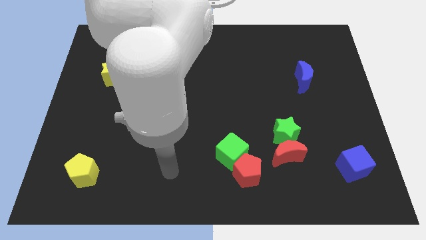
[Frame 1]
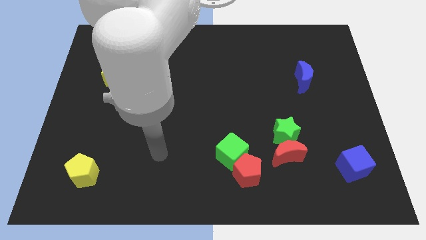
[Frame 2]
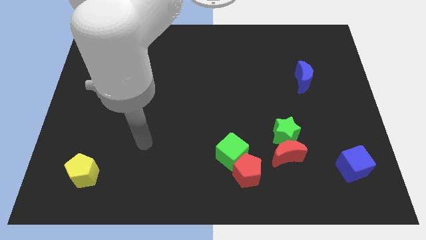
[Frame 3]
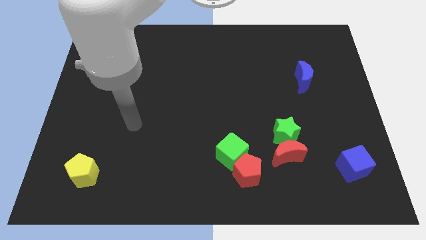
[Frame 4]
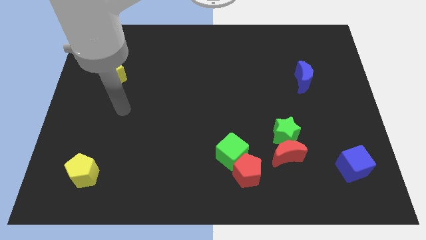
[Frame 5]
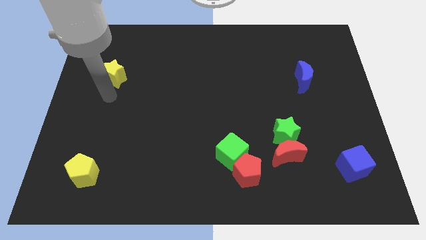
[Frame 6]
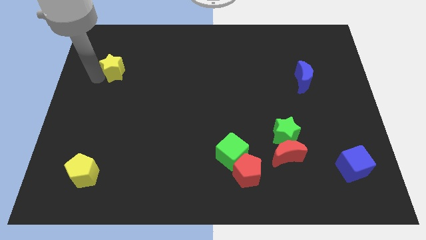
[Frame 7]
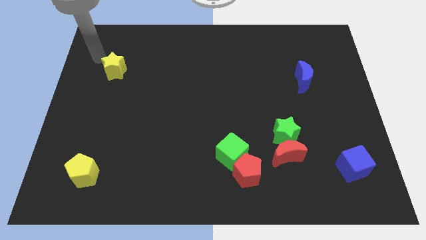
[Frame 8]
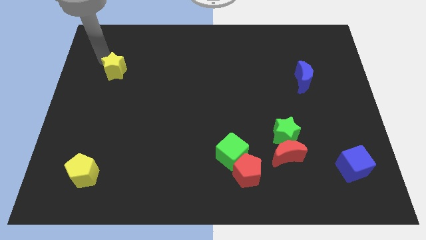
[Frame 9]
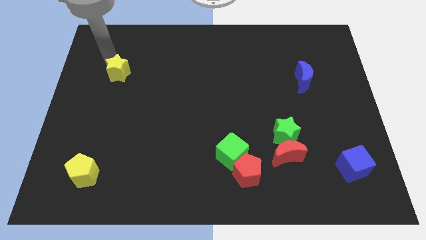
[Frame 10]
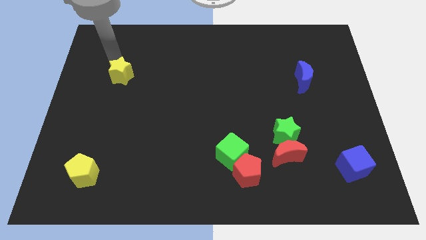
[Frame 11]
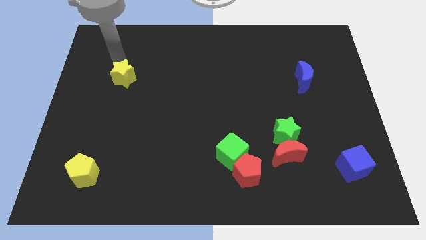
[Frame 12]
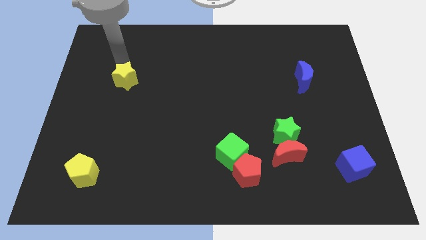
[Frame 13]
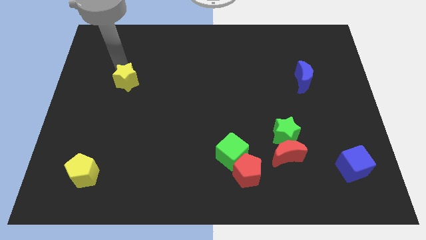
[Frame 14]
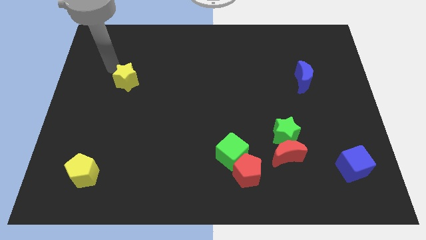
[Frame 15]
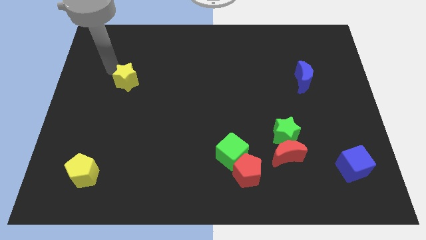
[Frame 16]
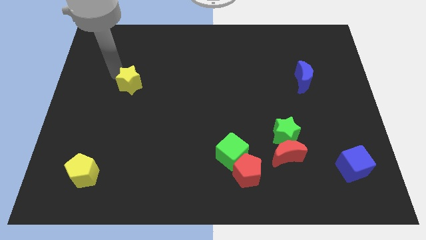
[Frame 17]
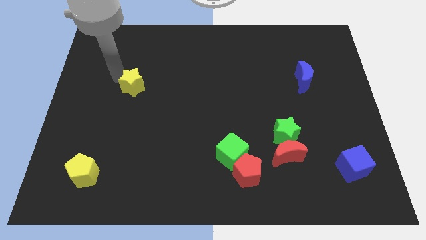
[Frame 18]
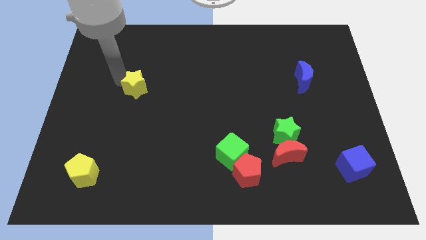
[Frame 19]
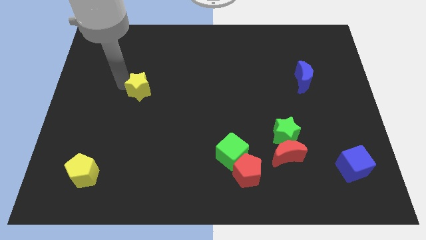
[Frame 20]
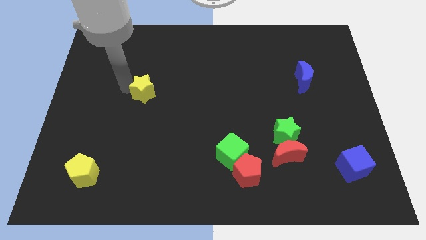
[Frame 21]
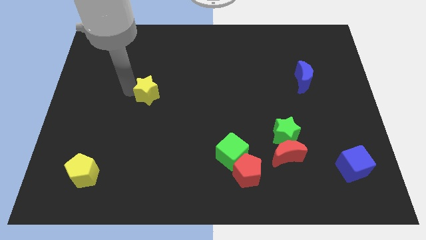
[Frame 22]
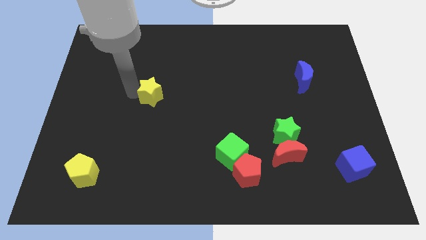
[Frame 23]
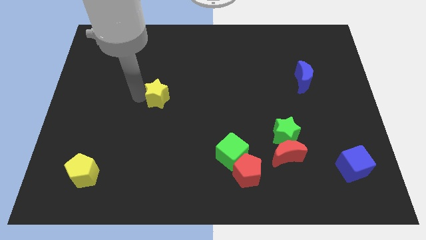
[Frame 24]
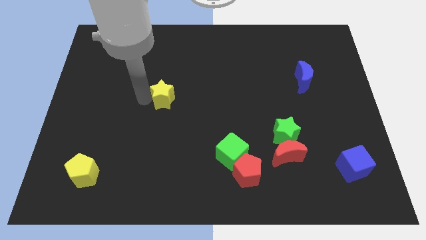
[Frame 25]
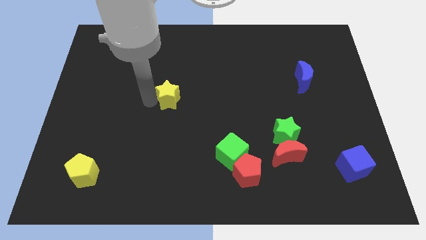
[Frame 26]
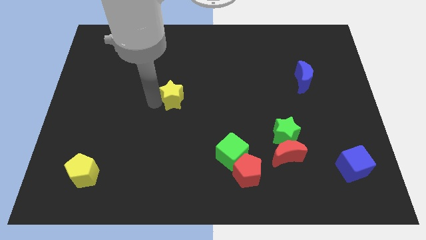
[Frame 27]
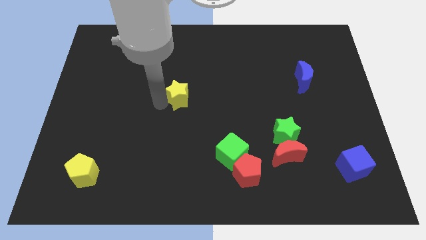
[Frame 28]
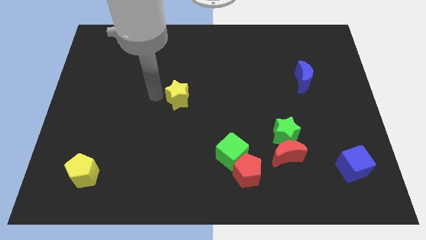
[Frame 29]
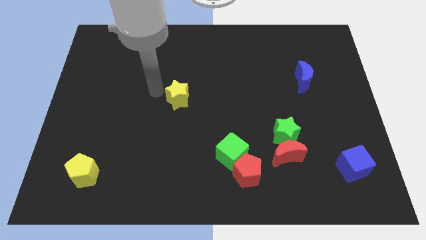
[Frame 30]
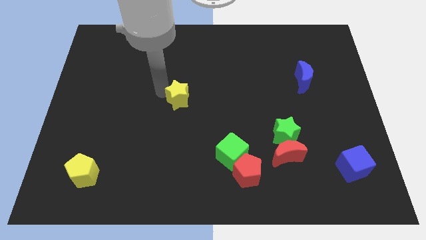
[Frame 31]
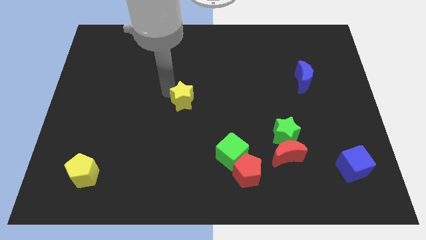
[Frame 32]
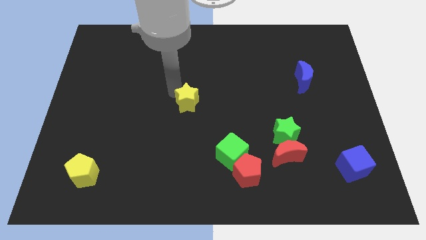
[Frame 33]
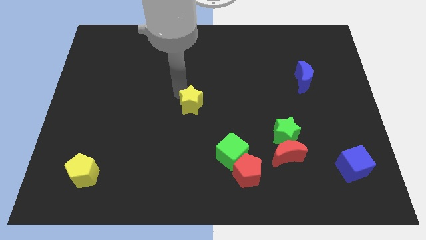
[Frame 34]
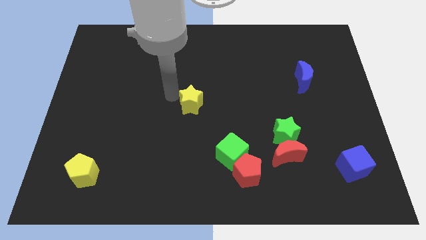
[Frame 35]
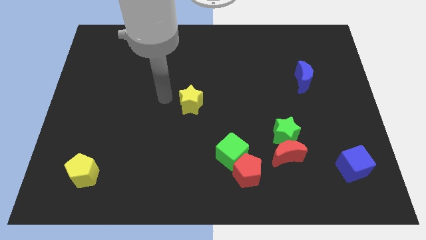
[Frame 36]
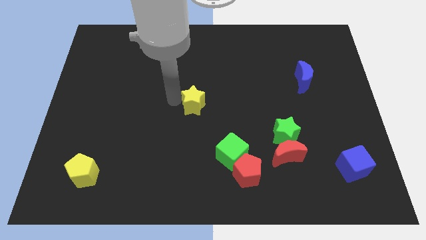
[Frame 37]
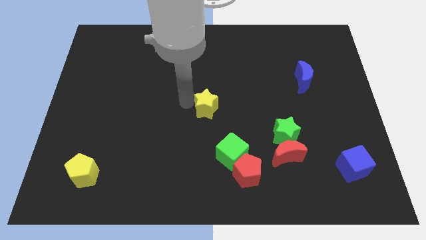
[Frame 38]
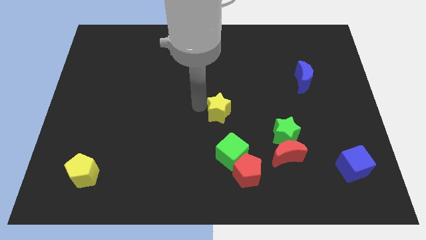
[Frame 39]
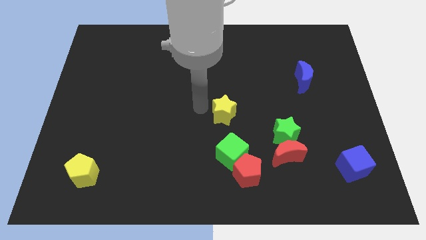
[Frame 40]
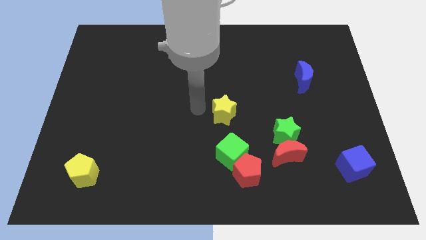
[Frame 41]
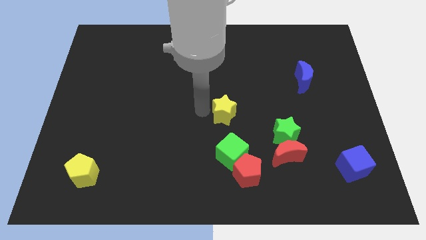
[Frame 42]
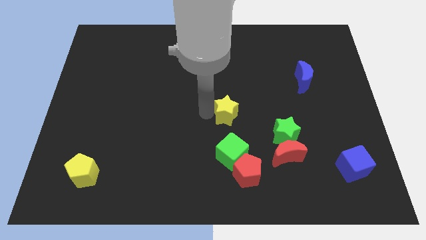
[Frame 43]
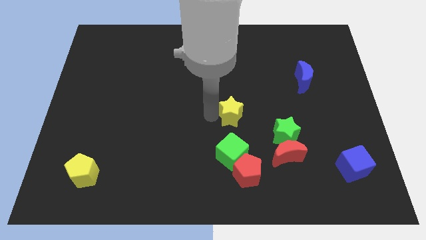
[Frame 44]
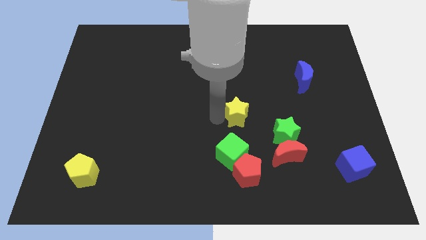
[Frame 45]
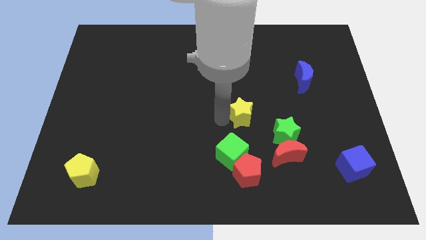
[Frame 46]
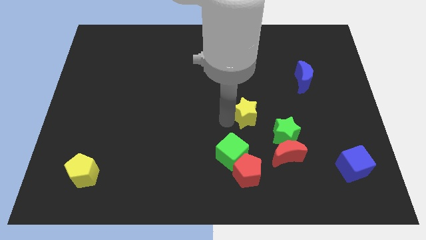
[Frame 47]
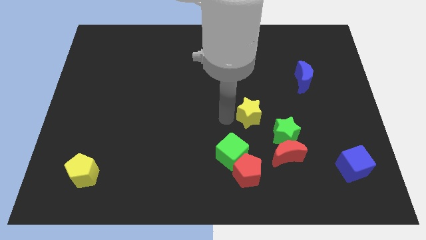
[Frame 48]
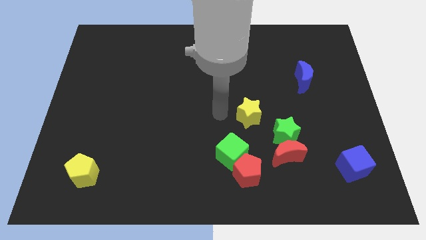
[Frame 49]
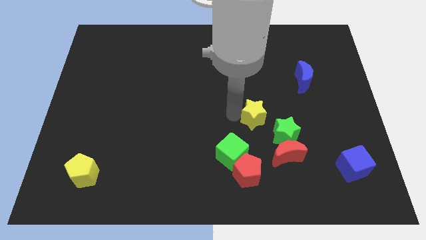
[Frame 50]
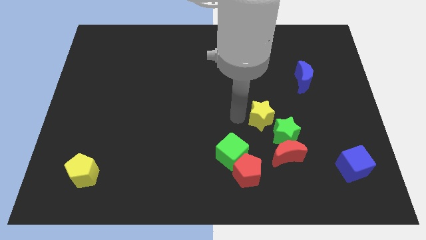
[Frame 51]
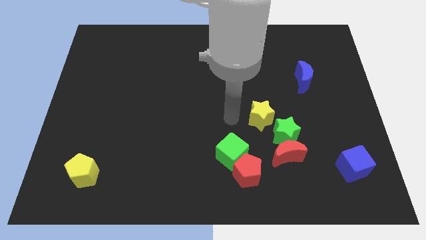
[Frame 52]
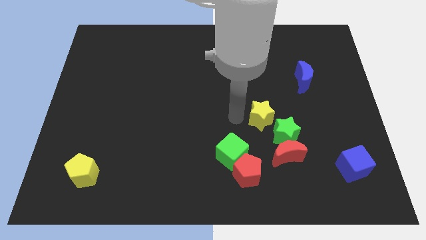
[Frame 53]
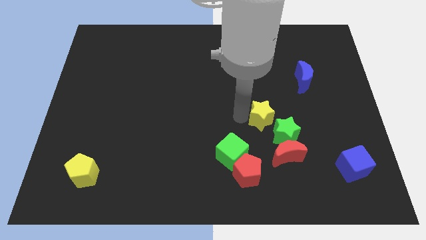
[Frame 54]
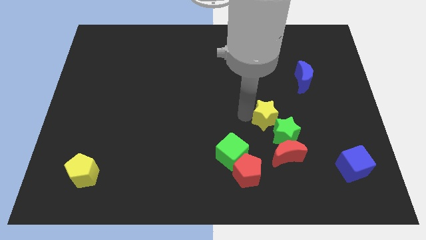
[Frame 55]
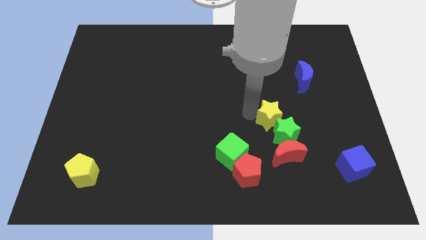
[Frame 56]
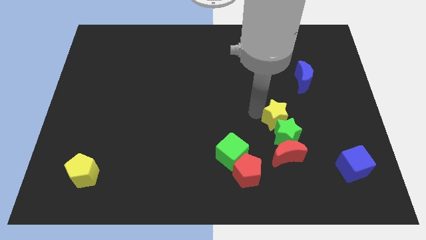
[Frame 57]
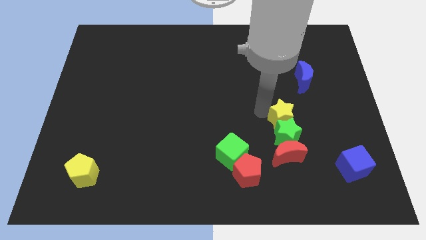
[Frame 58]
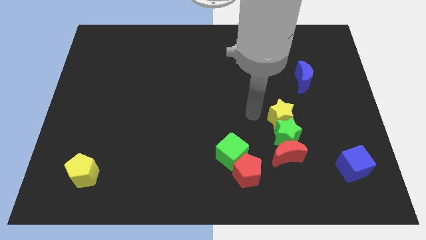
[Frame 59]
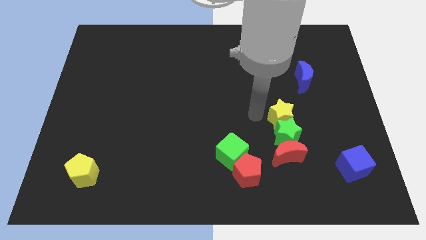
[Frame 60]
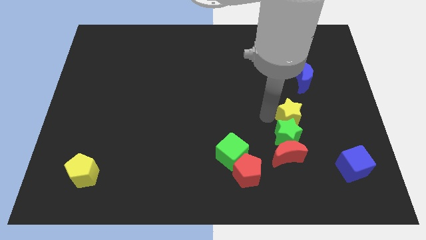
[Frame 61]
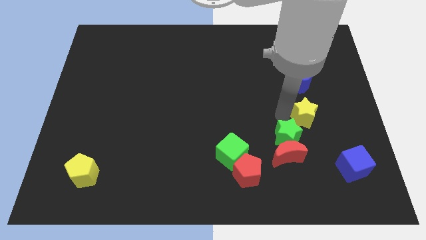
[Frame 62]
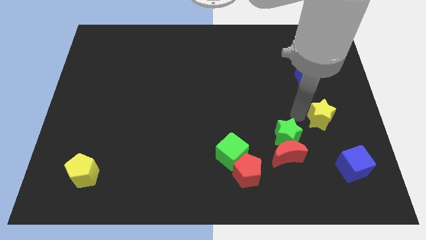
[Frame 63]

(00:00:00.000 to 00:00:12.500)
slide the yellow star above the blue cube

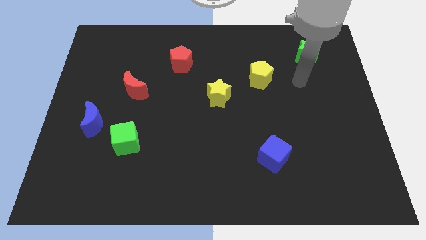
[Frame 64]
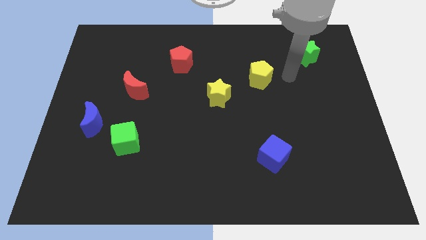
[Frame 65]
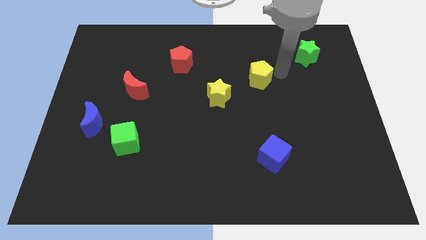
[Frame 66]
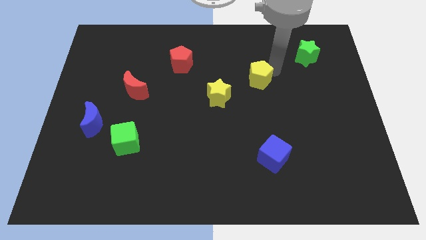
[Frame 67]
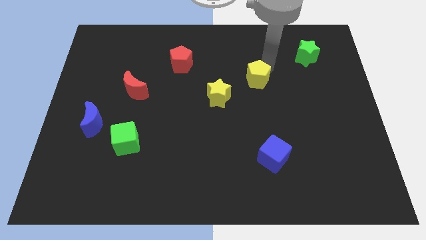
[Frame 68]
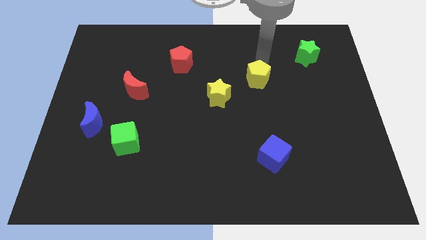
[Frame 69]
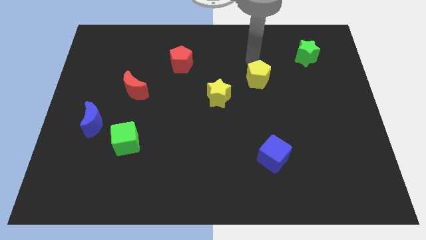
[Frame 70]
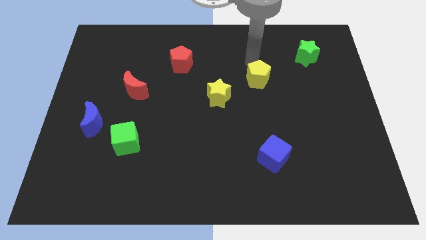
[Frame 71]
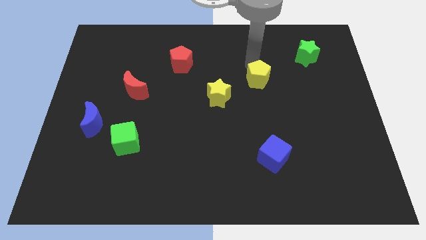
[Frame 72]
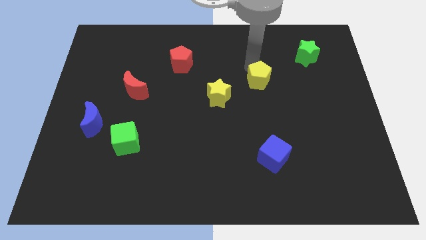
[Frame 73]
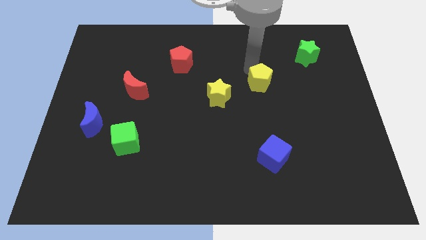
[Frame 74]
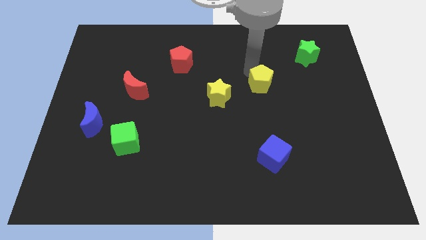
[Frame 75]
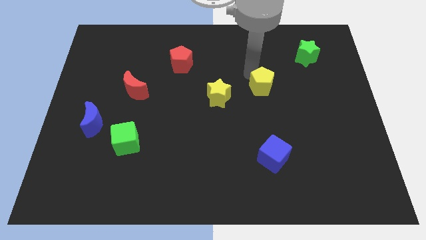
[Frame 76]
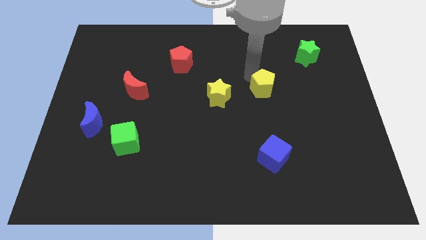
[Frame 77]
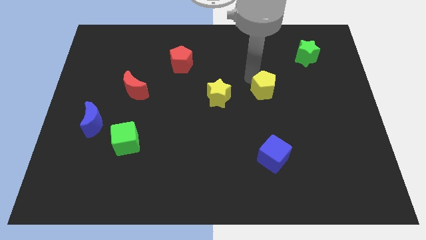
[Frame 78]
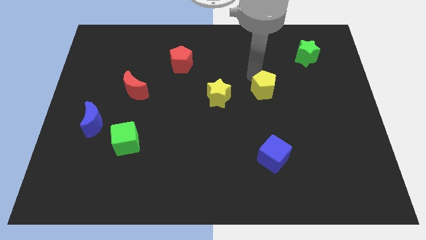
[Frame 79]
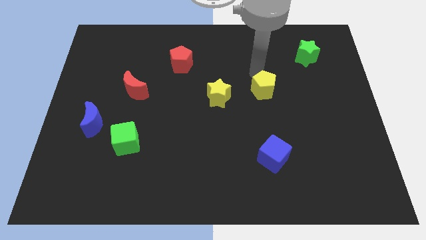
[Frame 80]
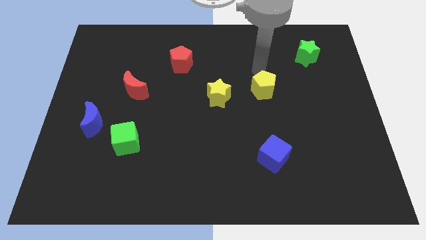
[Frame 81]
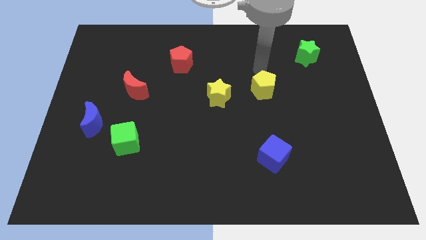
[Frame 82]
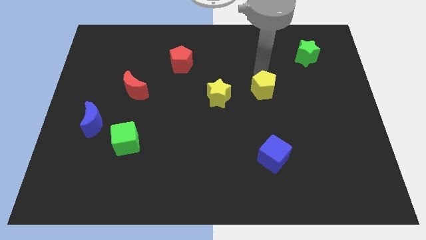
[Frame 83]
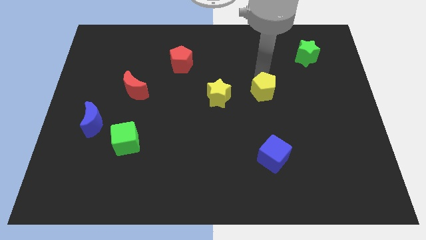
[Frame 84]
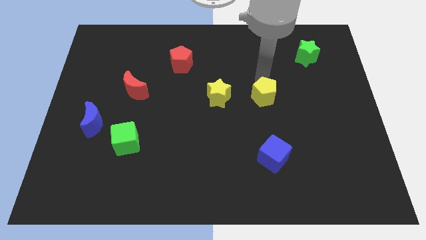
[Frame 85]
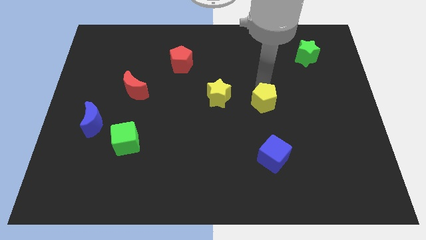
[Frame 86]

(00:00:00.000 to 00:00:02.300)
put the yellow pentagon to the top side of the blue cube
